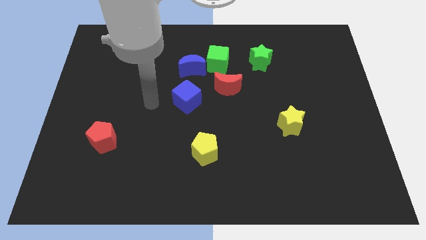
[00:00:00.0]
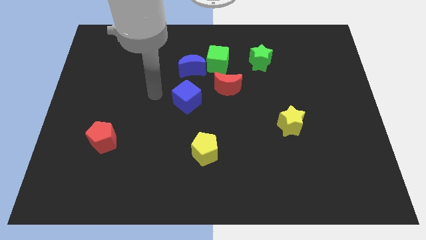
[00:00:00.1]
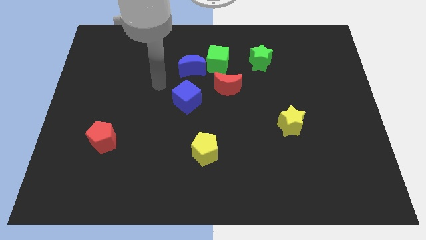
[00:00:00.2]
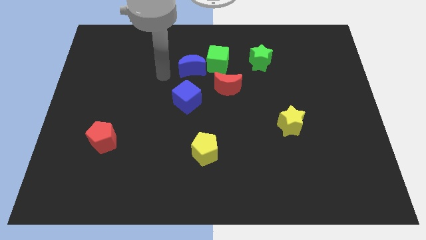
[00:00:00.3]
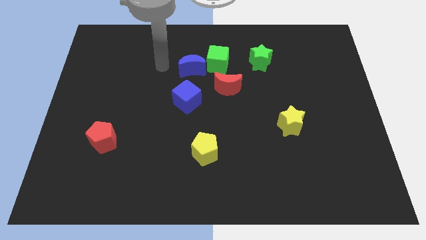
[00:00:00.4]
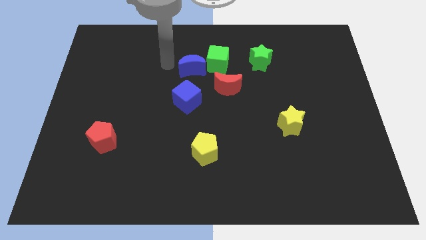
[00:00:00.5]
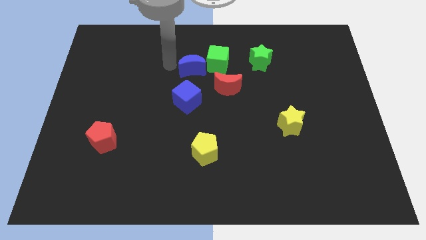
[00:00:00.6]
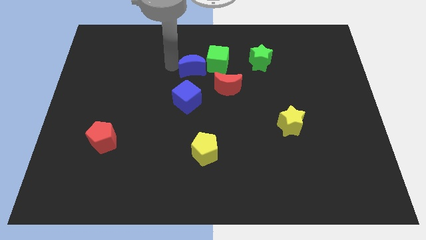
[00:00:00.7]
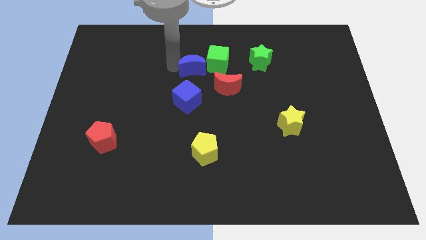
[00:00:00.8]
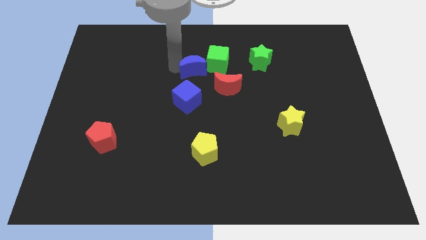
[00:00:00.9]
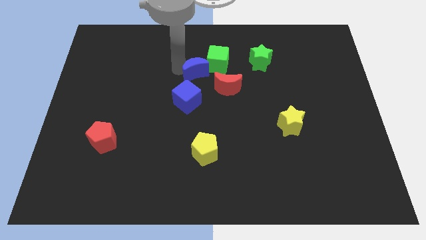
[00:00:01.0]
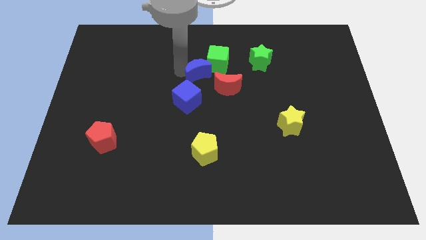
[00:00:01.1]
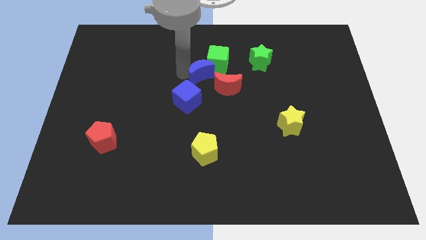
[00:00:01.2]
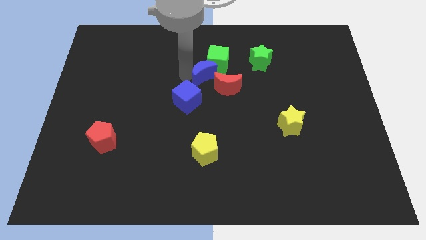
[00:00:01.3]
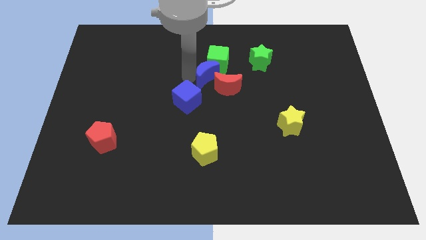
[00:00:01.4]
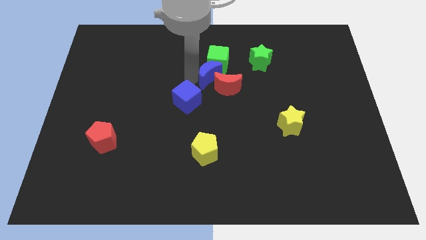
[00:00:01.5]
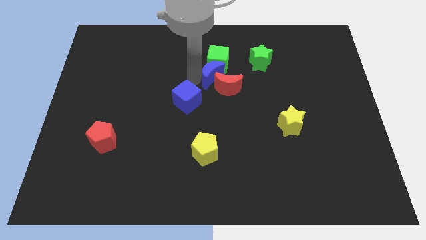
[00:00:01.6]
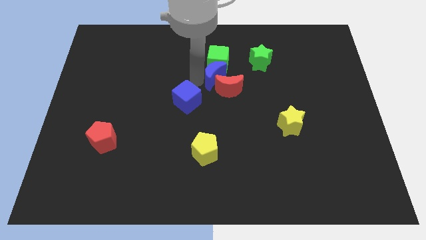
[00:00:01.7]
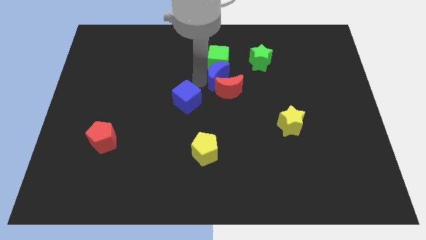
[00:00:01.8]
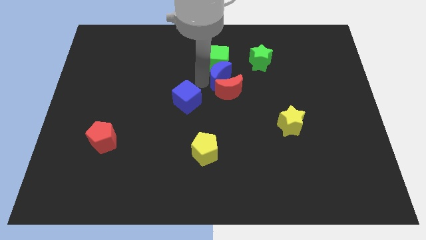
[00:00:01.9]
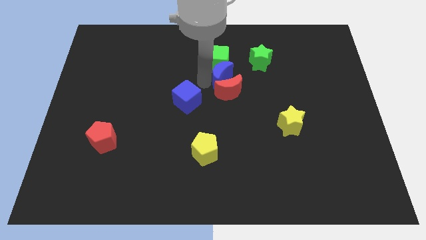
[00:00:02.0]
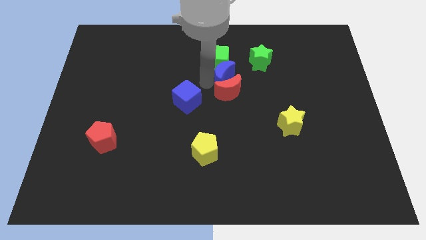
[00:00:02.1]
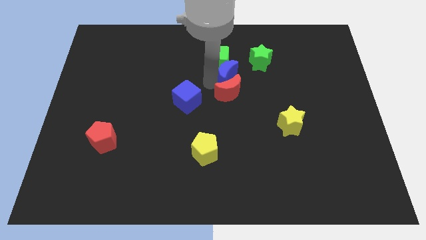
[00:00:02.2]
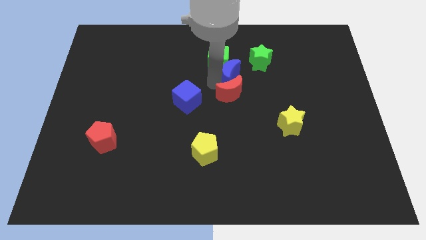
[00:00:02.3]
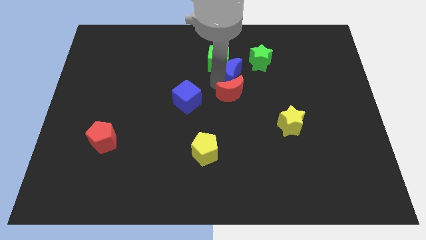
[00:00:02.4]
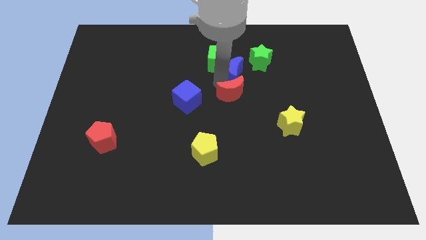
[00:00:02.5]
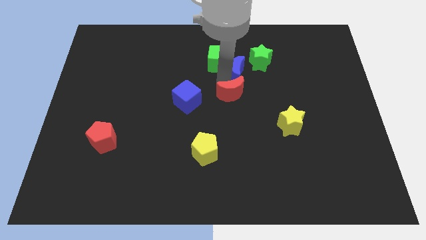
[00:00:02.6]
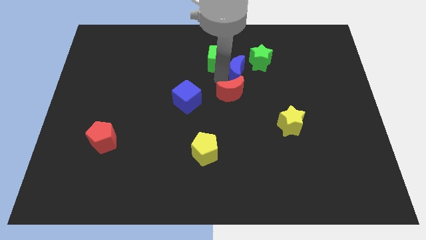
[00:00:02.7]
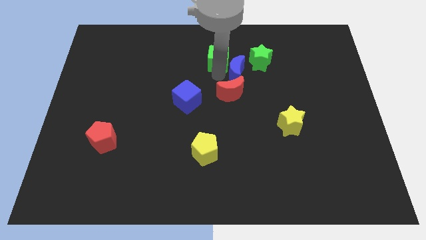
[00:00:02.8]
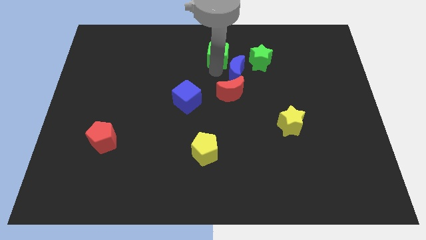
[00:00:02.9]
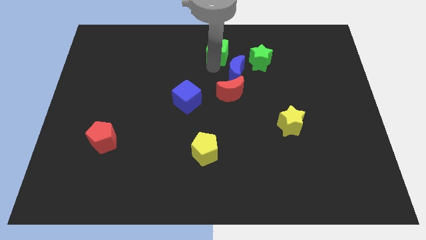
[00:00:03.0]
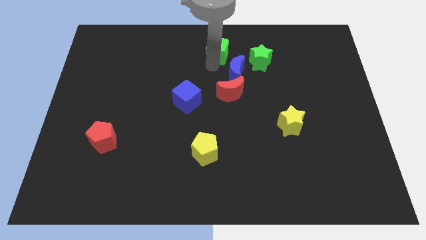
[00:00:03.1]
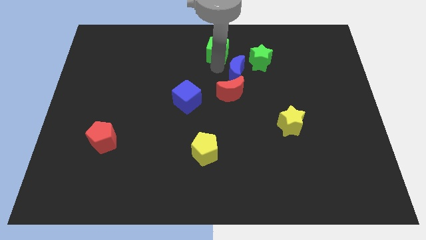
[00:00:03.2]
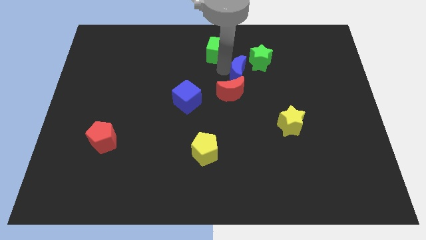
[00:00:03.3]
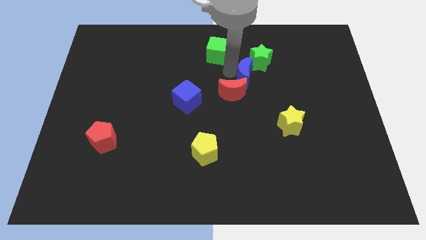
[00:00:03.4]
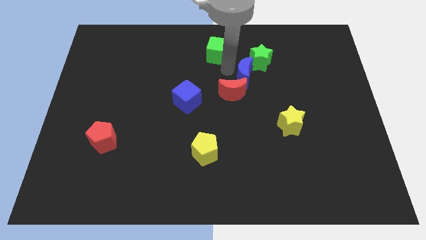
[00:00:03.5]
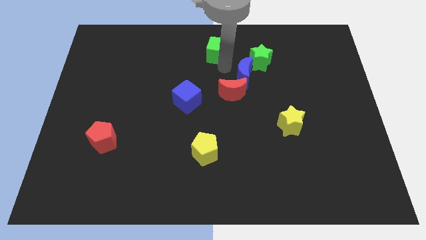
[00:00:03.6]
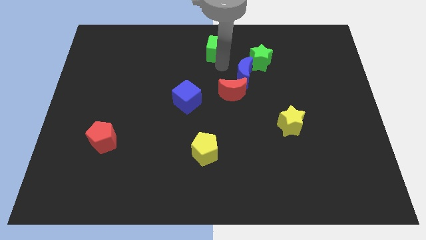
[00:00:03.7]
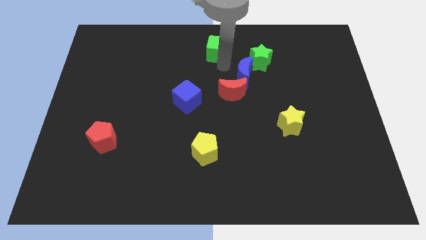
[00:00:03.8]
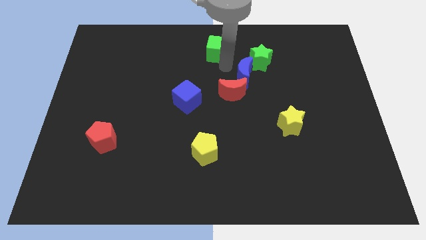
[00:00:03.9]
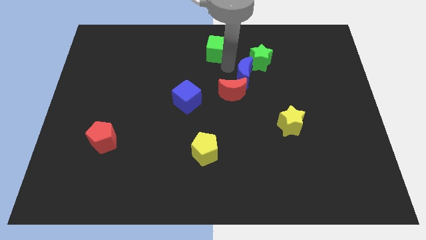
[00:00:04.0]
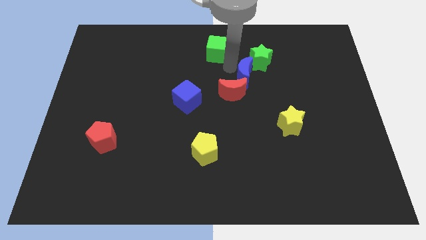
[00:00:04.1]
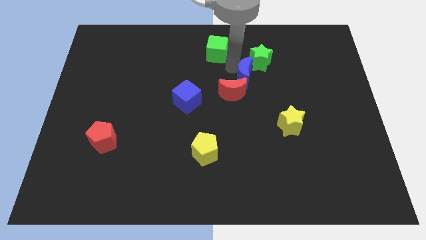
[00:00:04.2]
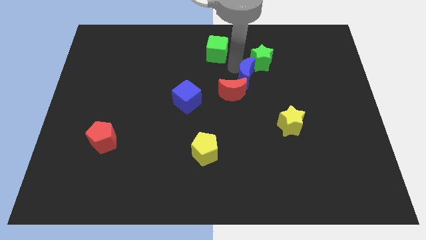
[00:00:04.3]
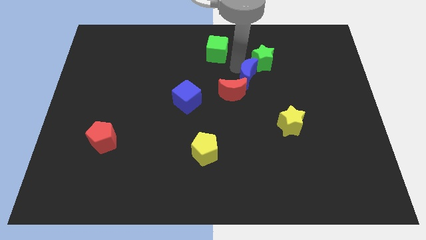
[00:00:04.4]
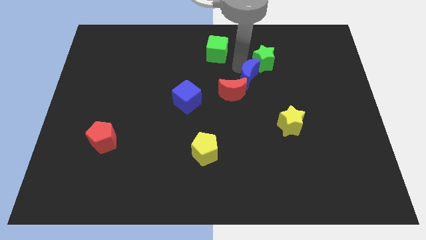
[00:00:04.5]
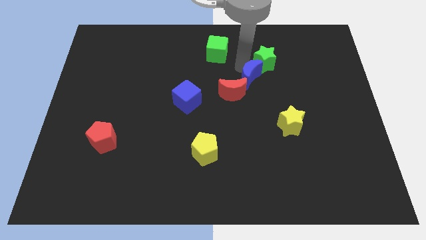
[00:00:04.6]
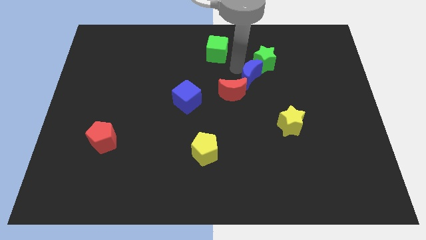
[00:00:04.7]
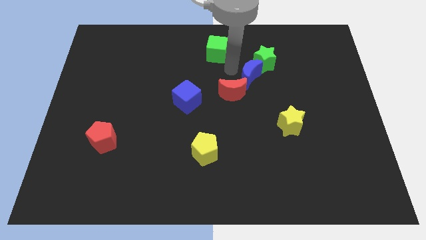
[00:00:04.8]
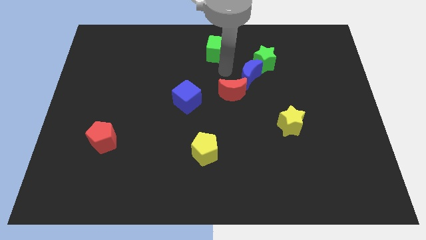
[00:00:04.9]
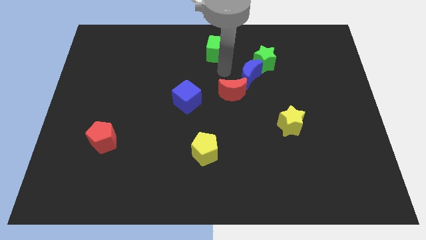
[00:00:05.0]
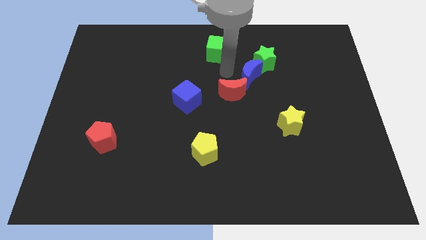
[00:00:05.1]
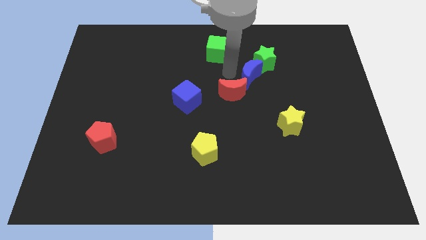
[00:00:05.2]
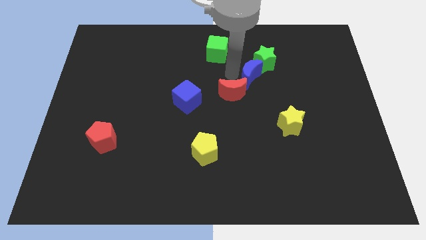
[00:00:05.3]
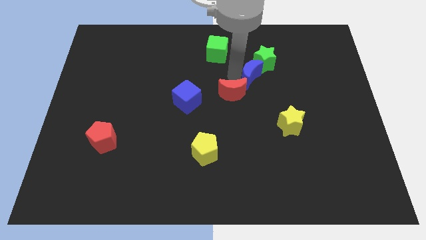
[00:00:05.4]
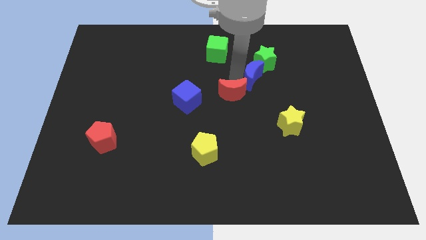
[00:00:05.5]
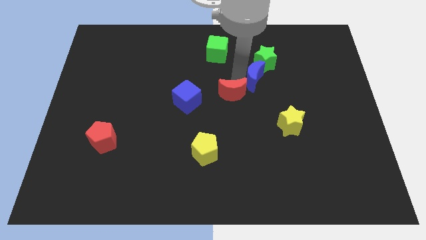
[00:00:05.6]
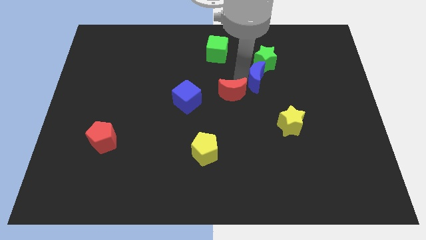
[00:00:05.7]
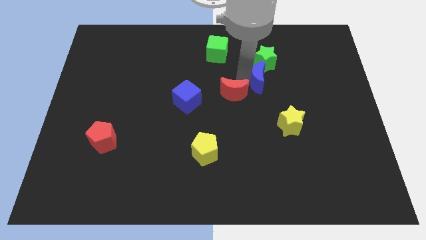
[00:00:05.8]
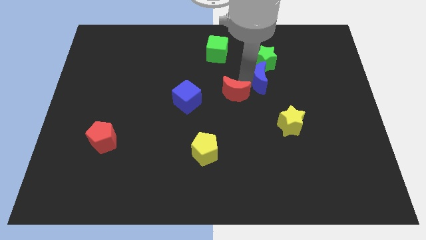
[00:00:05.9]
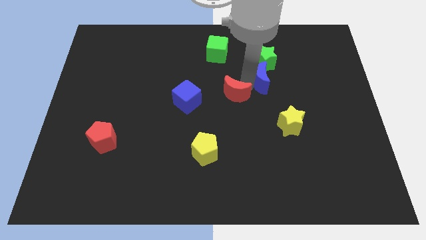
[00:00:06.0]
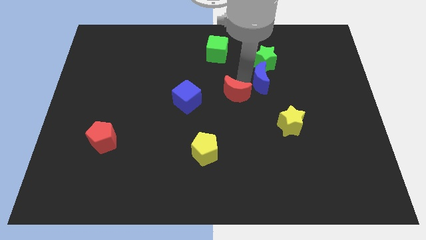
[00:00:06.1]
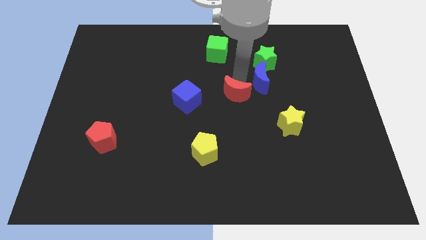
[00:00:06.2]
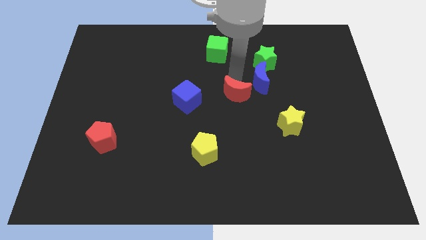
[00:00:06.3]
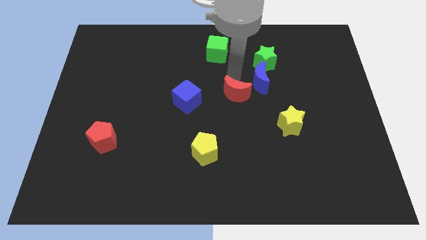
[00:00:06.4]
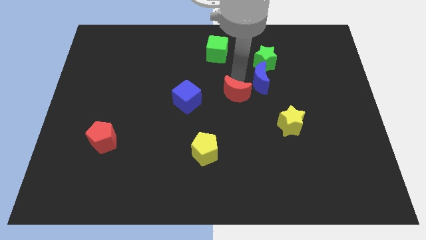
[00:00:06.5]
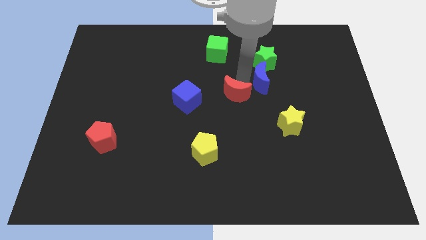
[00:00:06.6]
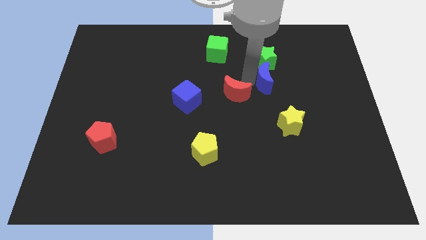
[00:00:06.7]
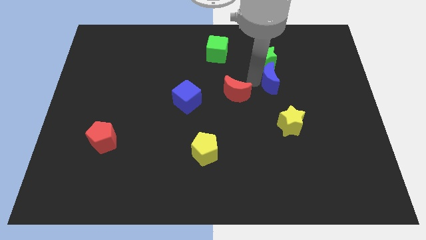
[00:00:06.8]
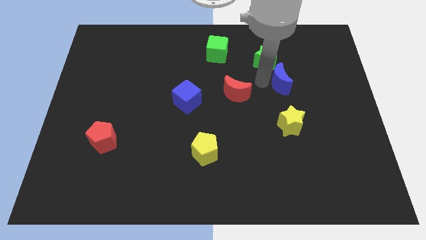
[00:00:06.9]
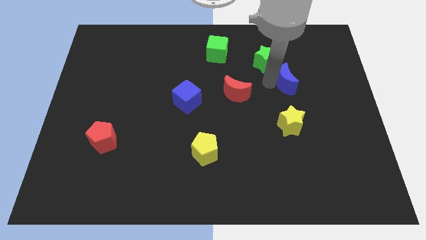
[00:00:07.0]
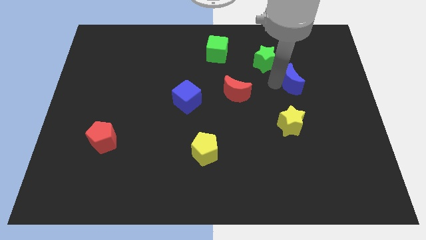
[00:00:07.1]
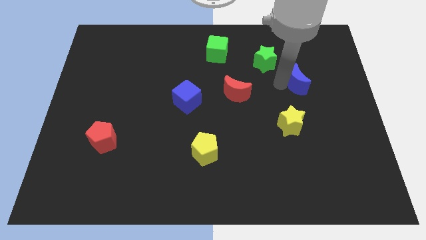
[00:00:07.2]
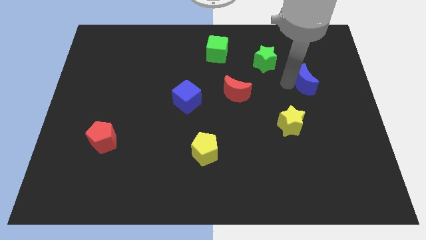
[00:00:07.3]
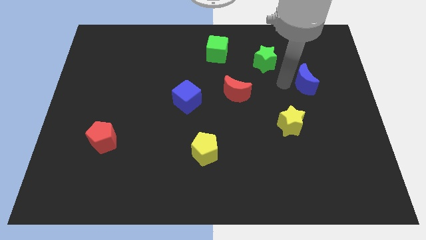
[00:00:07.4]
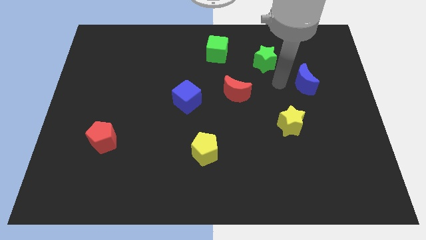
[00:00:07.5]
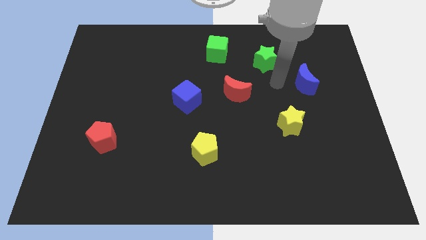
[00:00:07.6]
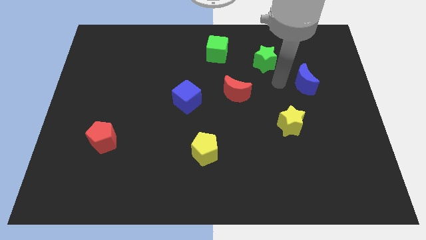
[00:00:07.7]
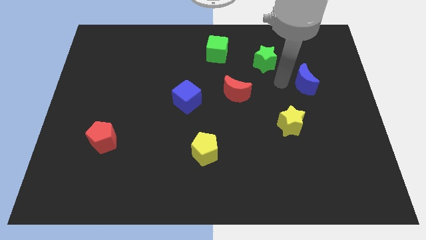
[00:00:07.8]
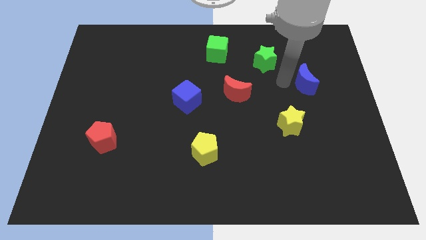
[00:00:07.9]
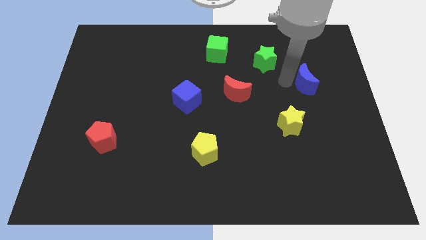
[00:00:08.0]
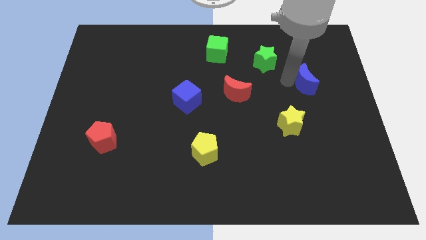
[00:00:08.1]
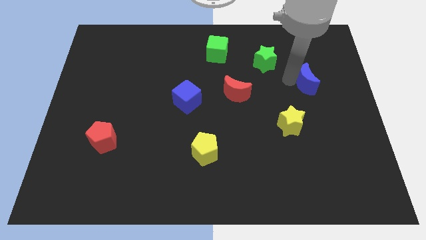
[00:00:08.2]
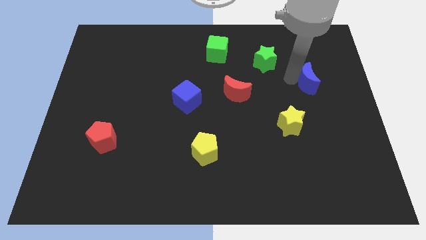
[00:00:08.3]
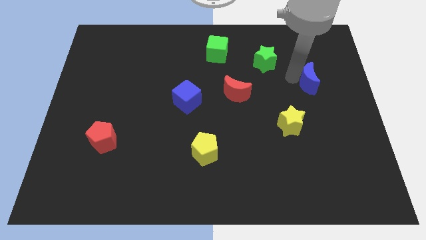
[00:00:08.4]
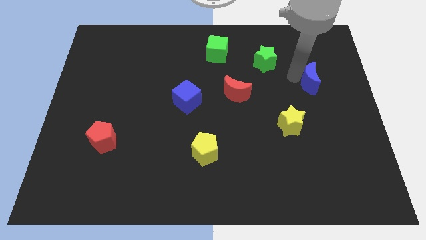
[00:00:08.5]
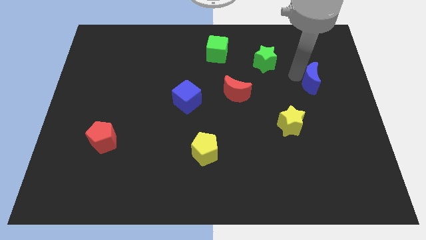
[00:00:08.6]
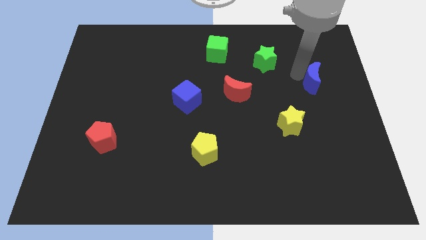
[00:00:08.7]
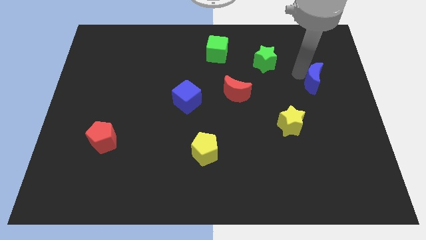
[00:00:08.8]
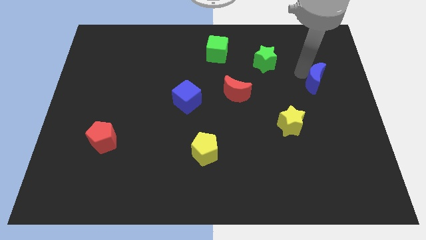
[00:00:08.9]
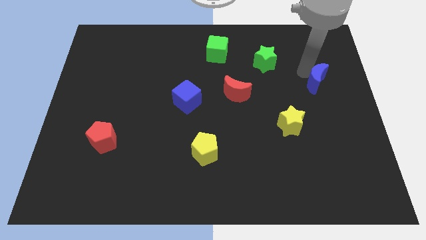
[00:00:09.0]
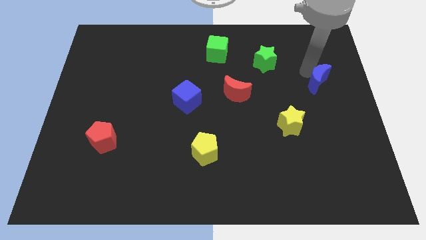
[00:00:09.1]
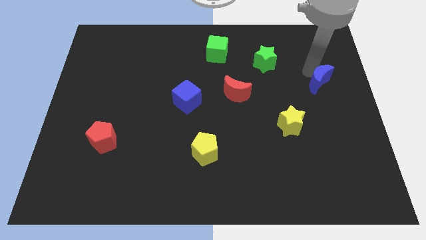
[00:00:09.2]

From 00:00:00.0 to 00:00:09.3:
push the blue moon to the right side of the board
